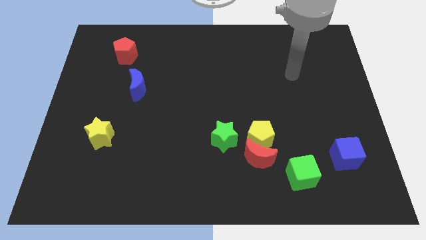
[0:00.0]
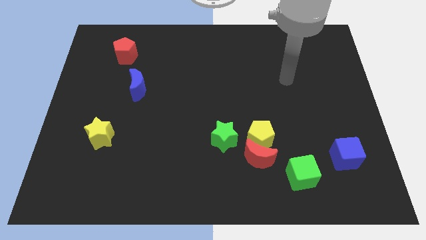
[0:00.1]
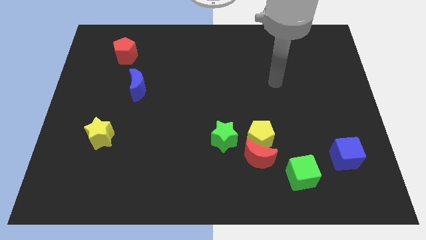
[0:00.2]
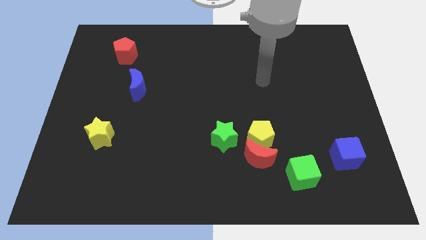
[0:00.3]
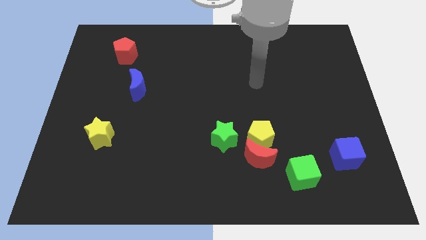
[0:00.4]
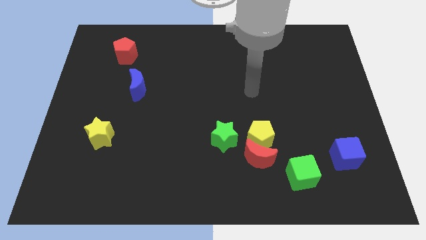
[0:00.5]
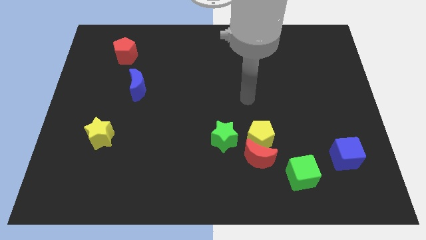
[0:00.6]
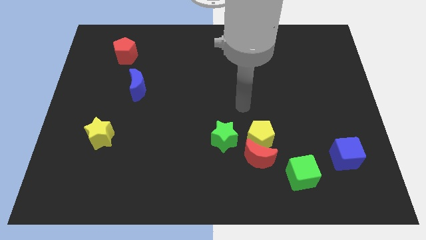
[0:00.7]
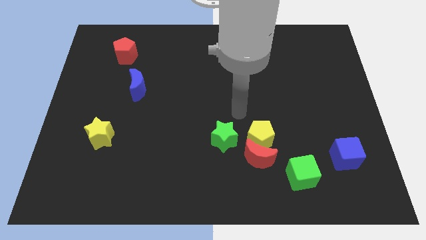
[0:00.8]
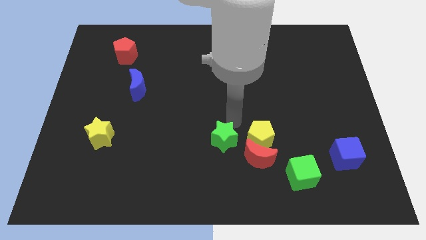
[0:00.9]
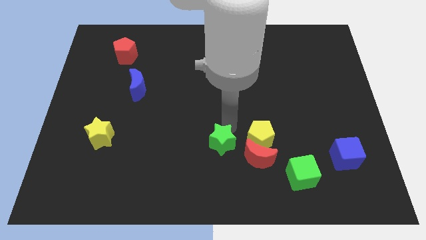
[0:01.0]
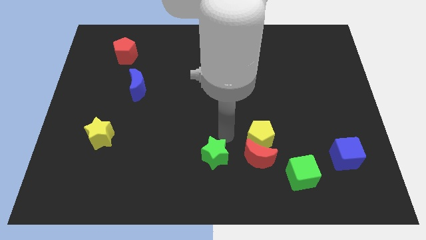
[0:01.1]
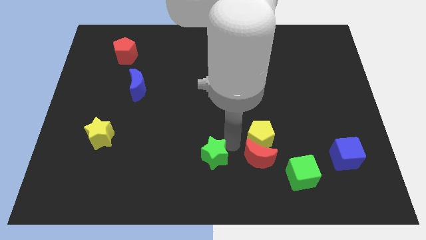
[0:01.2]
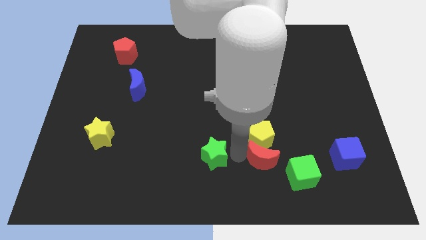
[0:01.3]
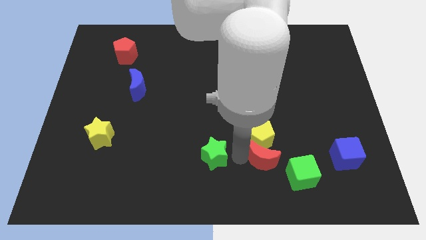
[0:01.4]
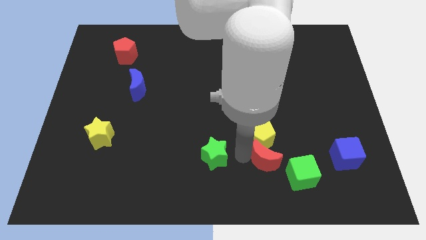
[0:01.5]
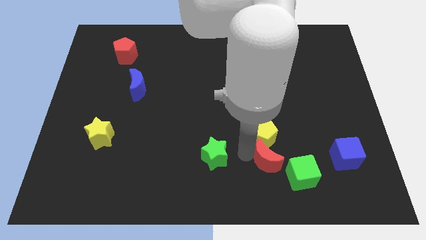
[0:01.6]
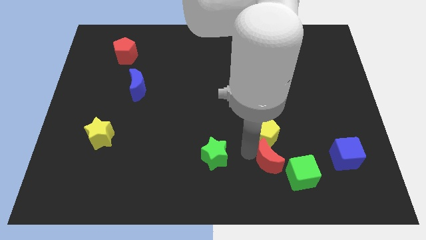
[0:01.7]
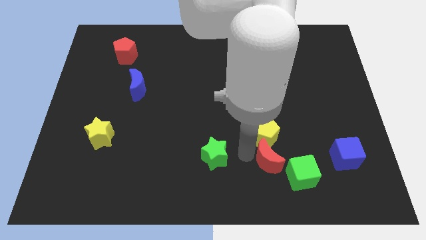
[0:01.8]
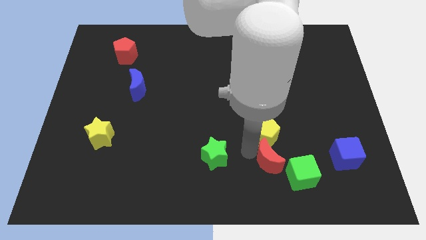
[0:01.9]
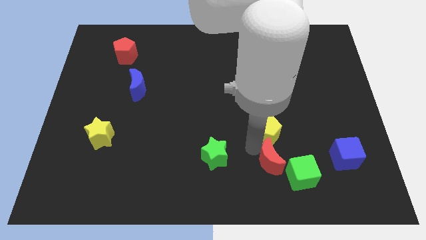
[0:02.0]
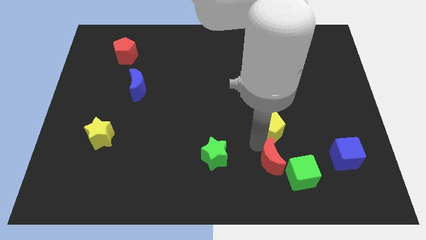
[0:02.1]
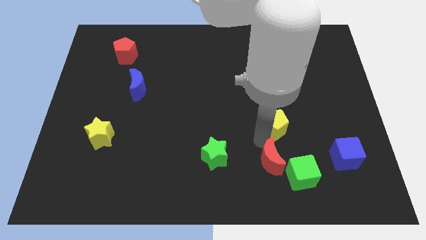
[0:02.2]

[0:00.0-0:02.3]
pull the yellow pentagon apart from the red moon and green star

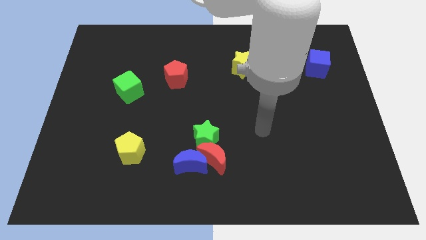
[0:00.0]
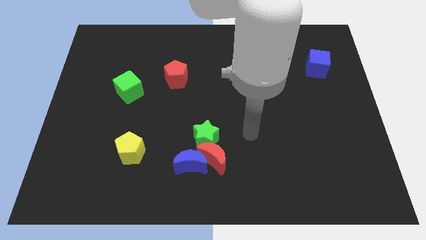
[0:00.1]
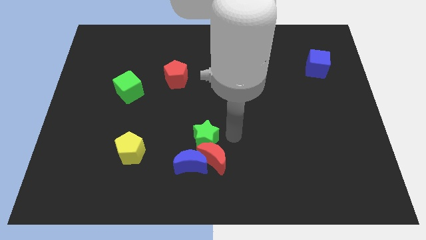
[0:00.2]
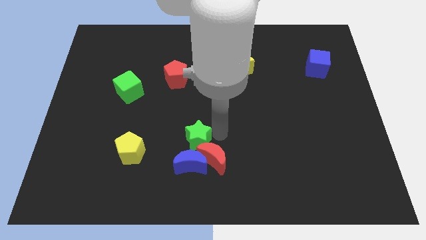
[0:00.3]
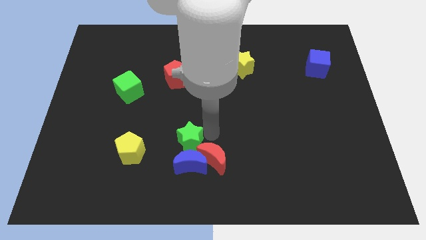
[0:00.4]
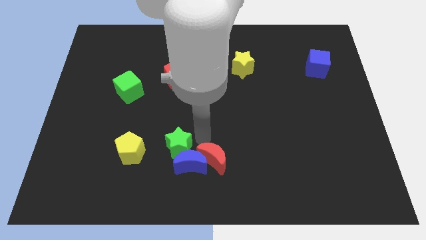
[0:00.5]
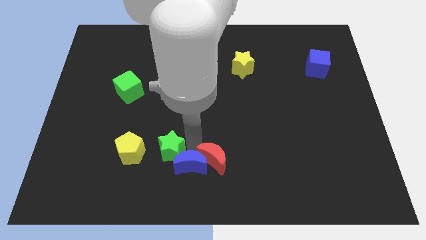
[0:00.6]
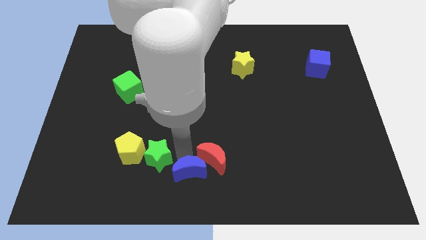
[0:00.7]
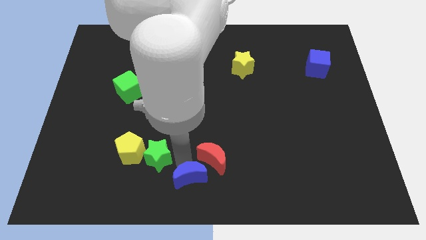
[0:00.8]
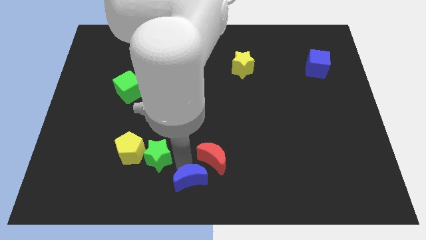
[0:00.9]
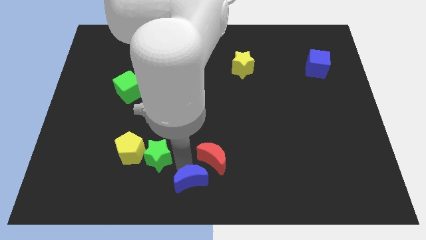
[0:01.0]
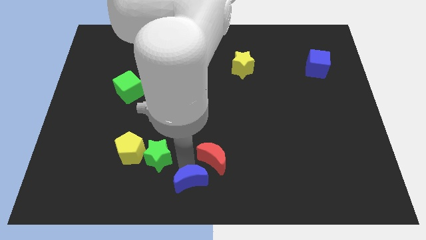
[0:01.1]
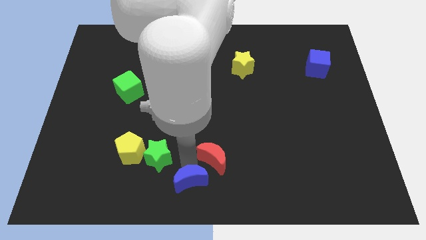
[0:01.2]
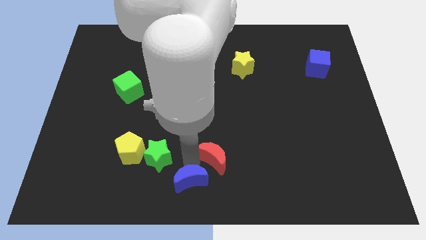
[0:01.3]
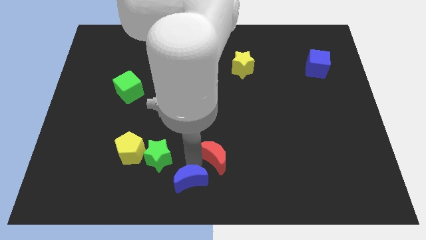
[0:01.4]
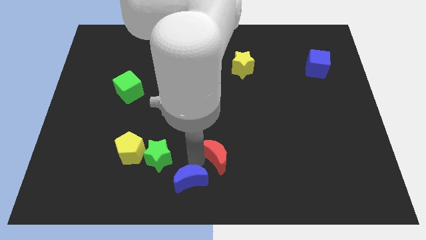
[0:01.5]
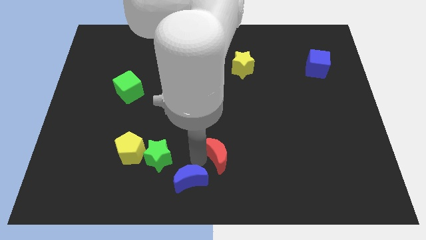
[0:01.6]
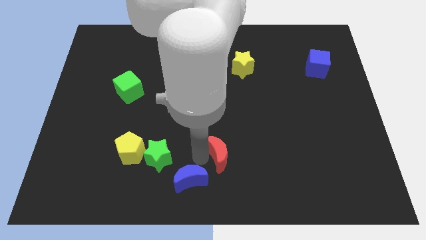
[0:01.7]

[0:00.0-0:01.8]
pull the red moon apart from the blue moon and green star

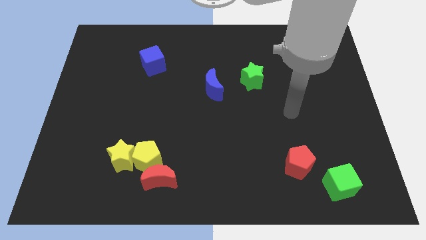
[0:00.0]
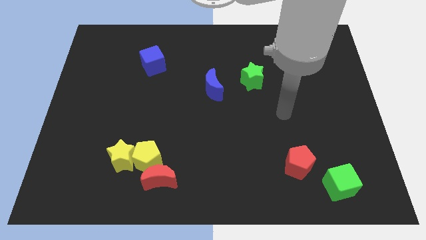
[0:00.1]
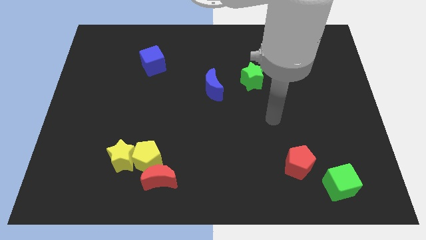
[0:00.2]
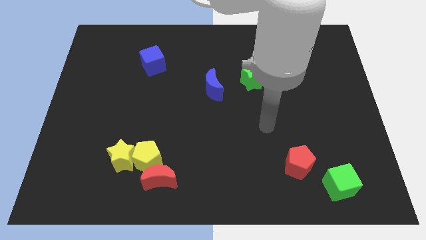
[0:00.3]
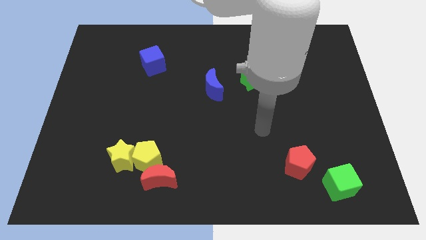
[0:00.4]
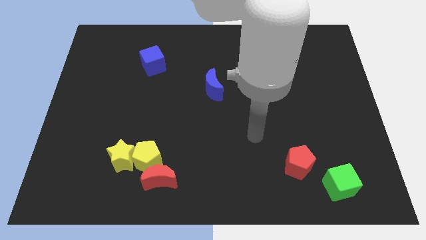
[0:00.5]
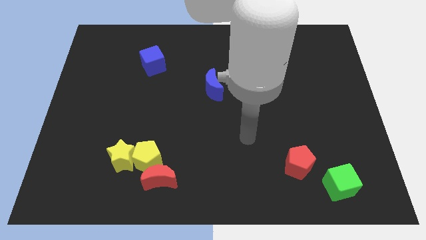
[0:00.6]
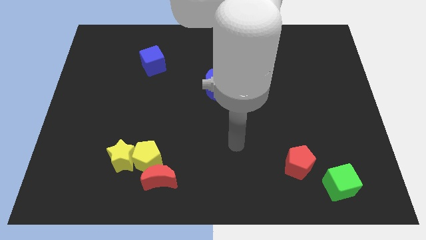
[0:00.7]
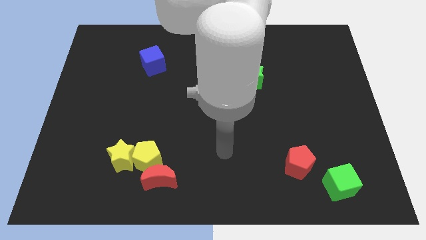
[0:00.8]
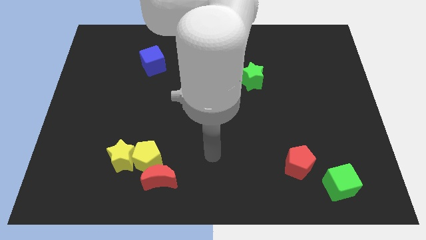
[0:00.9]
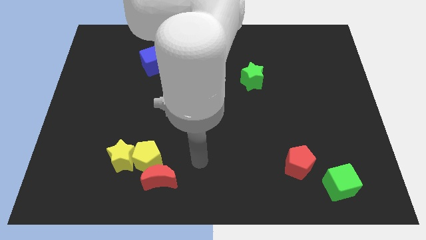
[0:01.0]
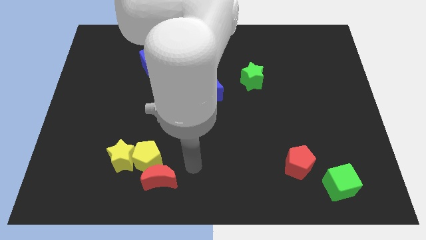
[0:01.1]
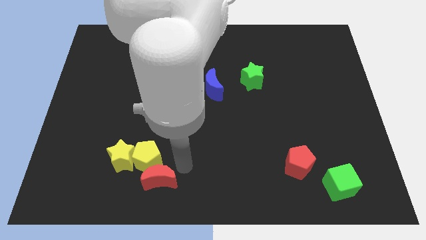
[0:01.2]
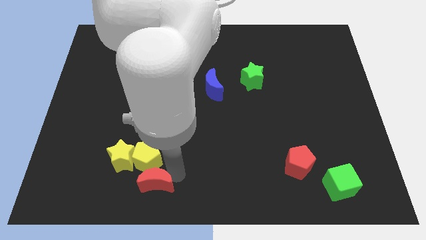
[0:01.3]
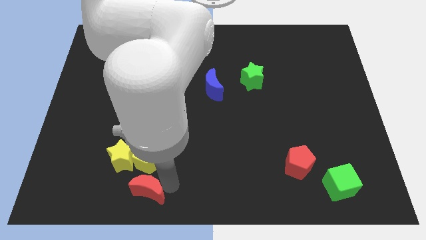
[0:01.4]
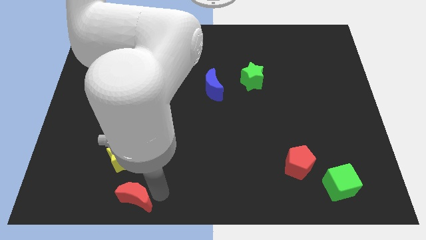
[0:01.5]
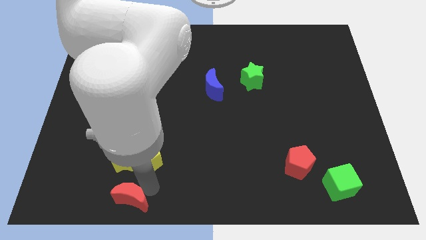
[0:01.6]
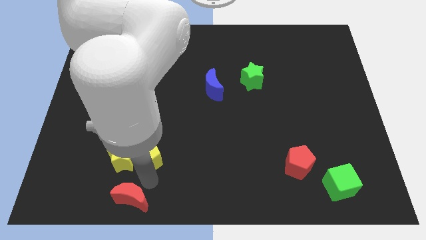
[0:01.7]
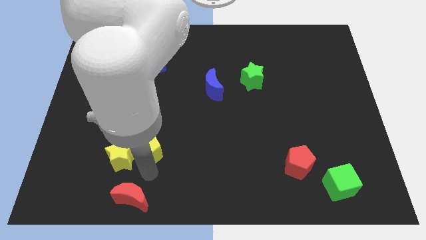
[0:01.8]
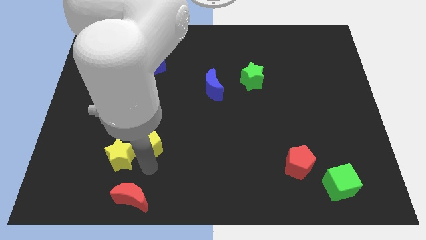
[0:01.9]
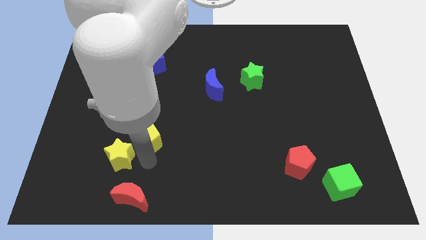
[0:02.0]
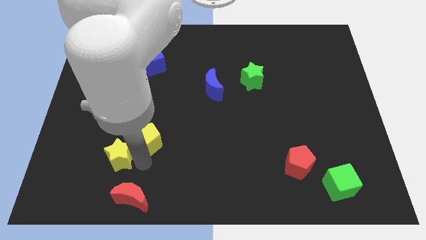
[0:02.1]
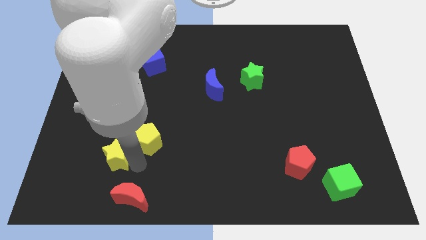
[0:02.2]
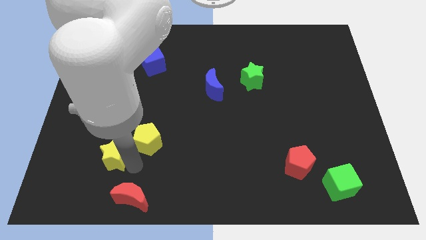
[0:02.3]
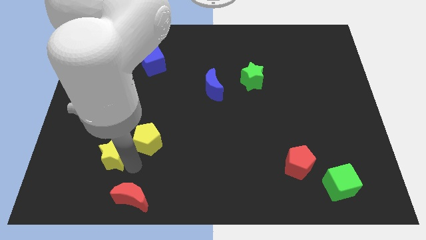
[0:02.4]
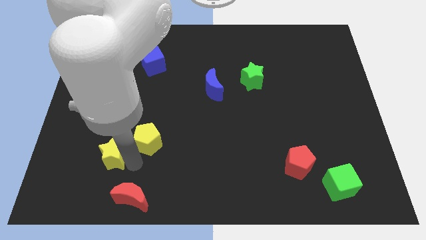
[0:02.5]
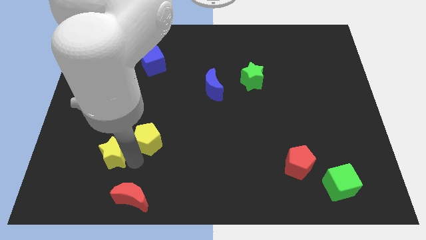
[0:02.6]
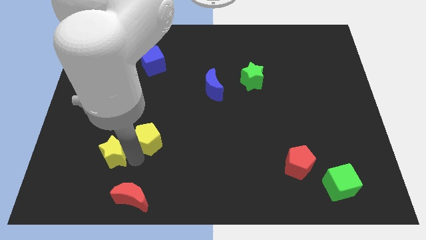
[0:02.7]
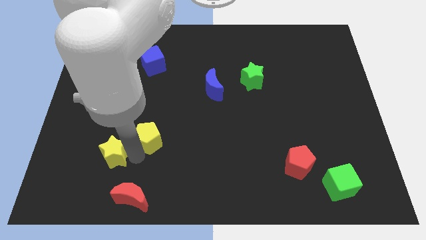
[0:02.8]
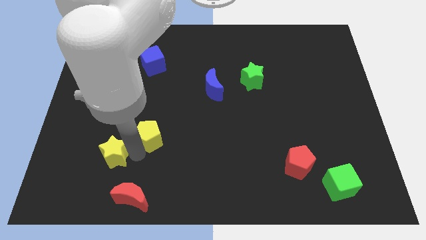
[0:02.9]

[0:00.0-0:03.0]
separate the yellow pentagon from the yellow star and red moon

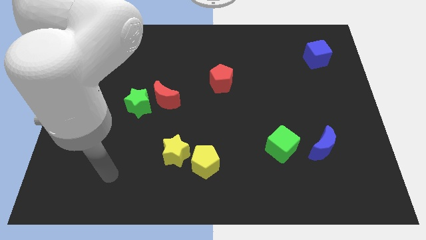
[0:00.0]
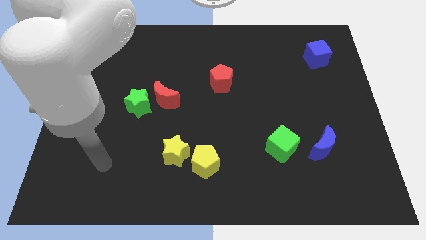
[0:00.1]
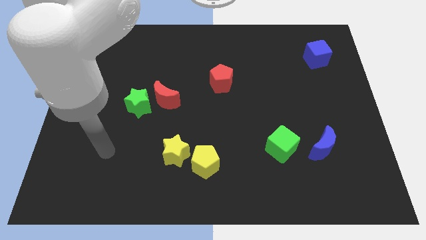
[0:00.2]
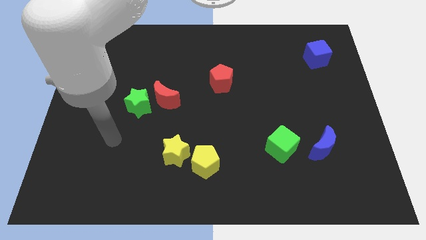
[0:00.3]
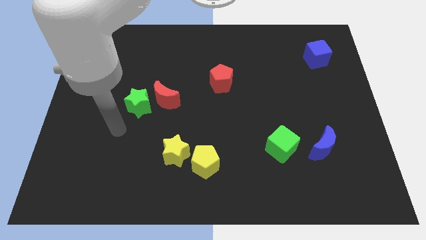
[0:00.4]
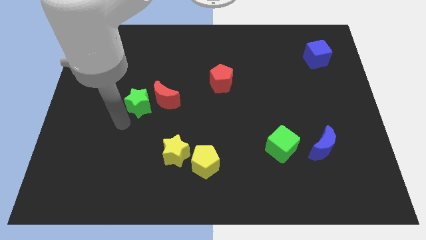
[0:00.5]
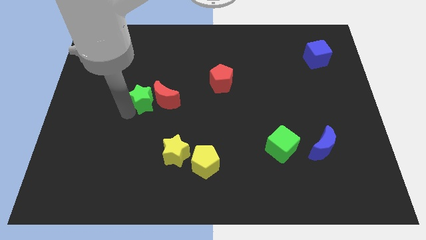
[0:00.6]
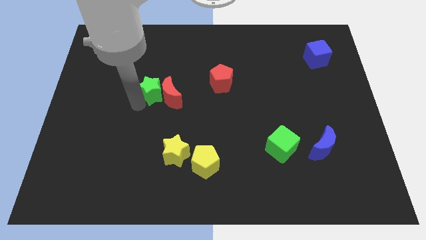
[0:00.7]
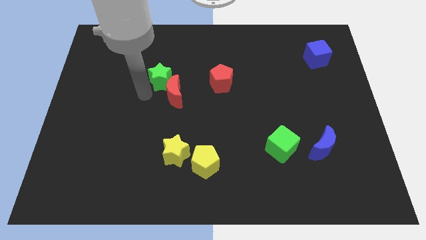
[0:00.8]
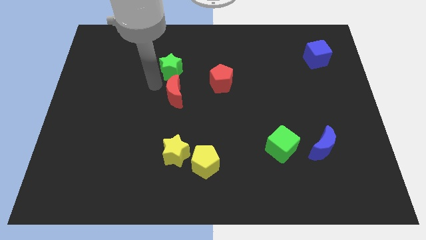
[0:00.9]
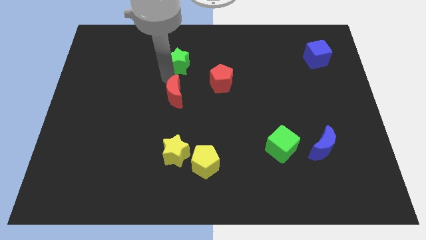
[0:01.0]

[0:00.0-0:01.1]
move the red moon away from the green star

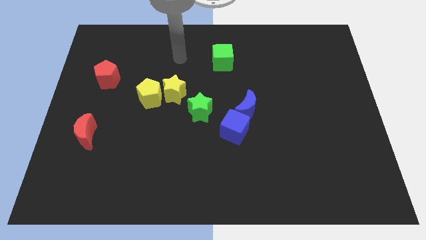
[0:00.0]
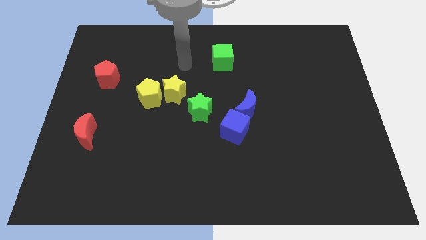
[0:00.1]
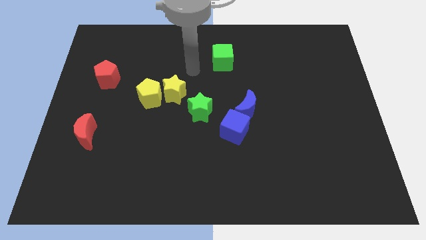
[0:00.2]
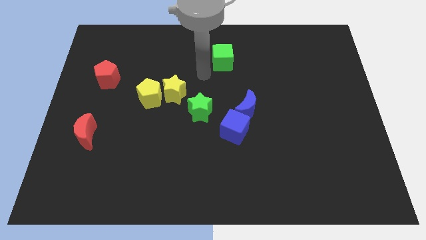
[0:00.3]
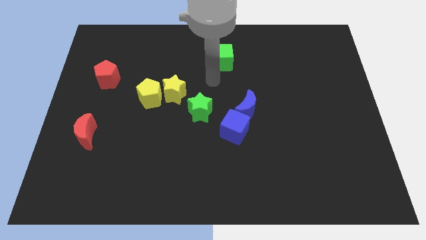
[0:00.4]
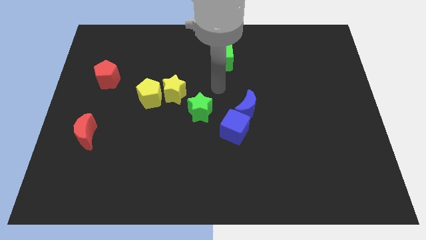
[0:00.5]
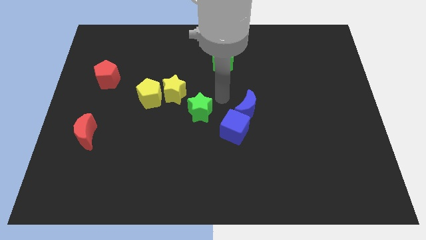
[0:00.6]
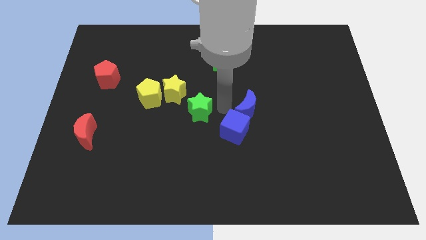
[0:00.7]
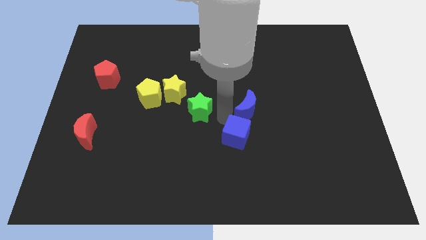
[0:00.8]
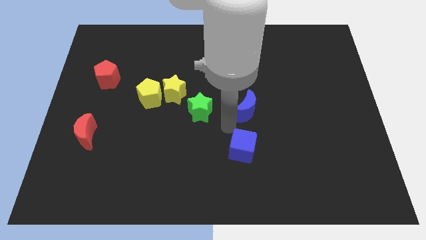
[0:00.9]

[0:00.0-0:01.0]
move the blue moon away from the blue cube

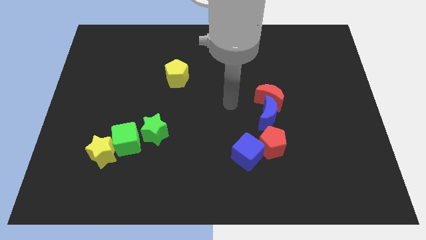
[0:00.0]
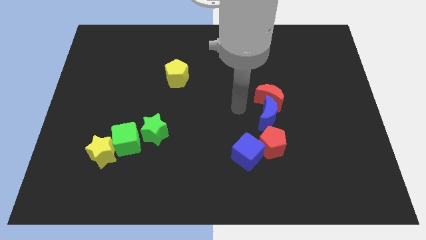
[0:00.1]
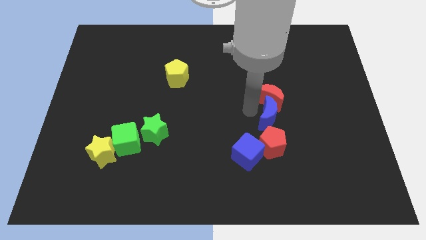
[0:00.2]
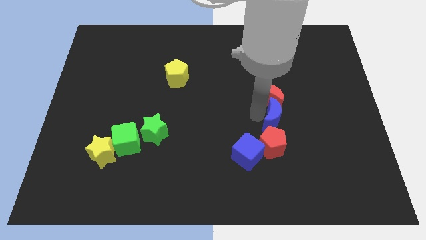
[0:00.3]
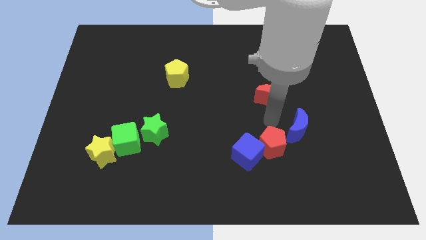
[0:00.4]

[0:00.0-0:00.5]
separate the red moon from the blue moon
